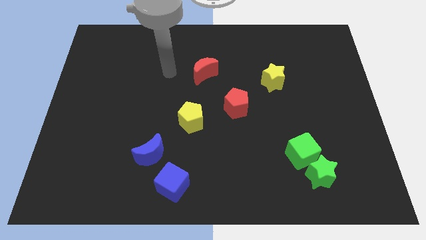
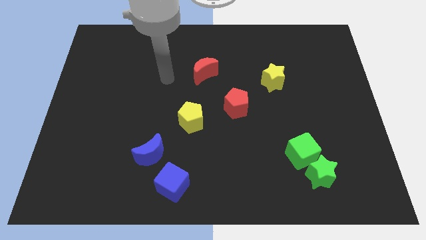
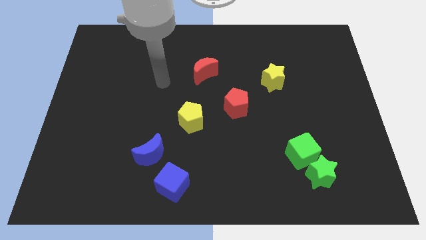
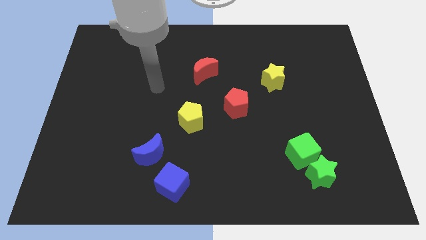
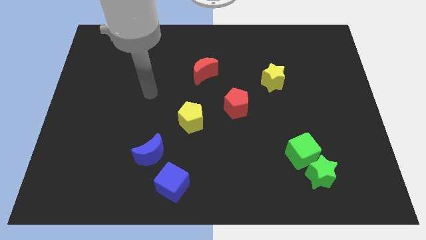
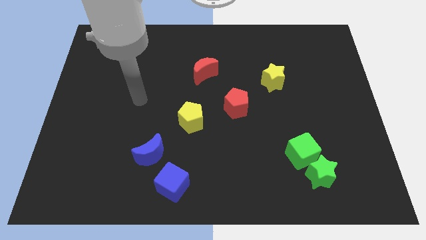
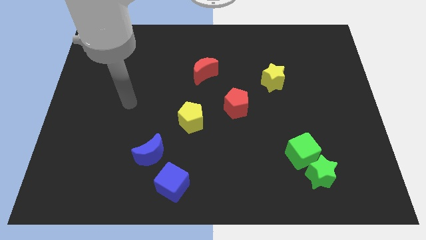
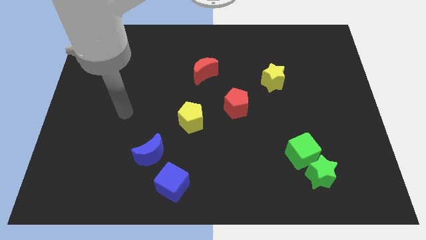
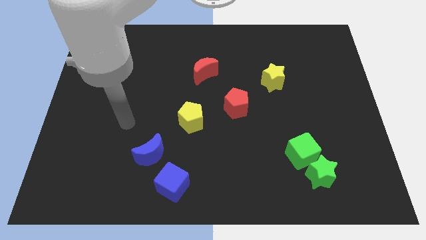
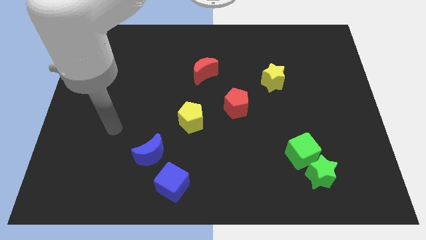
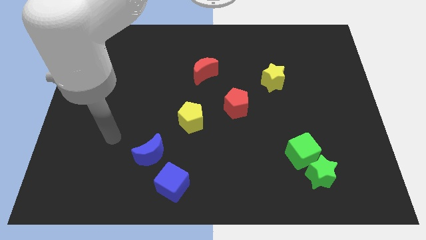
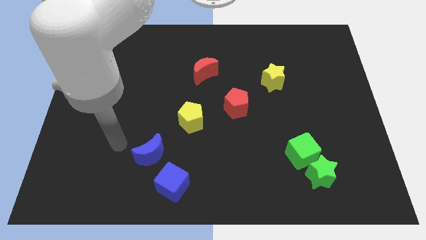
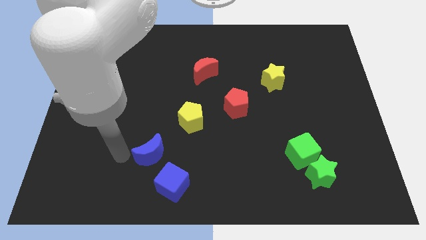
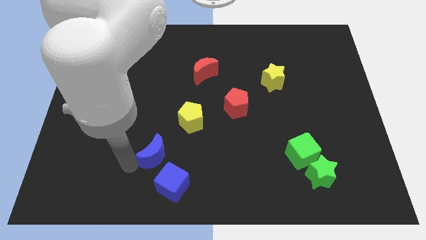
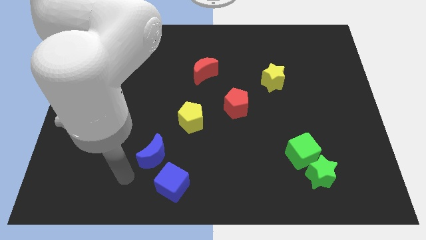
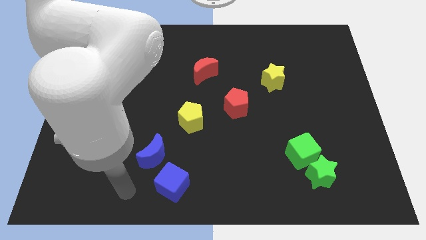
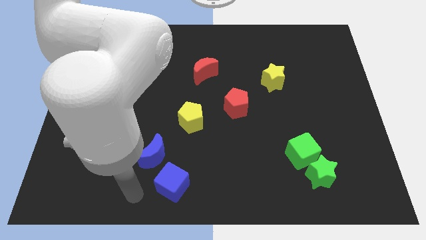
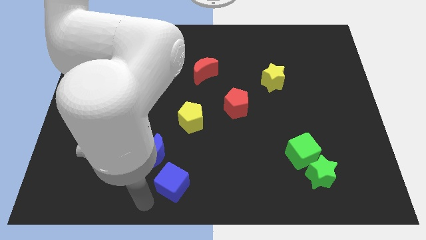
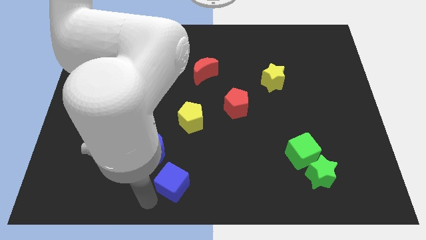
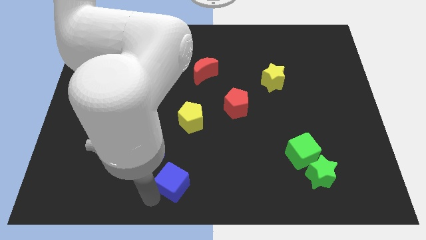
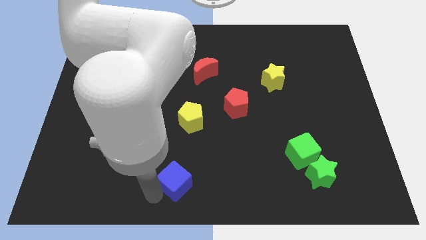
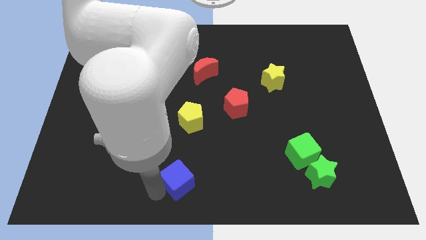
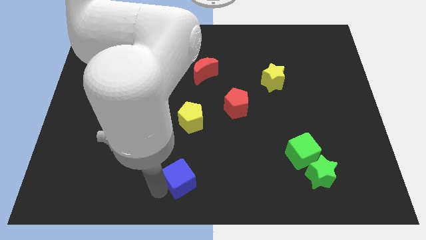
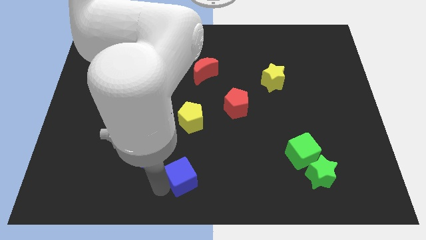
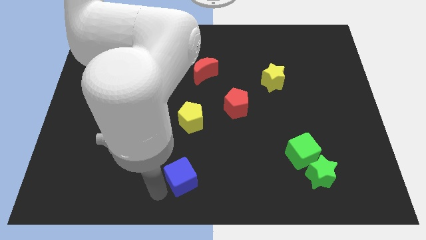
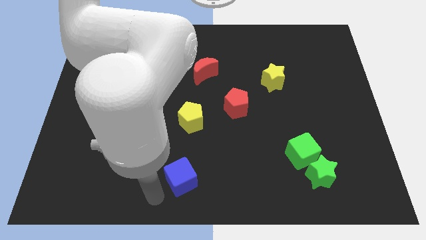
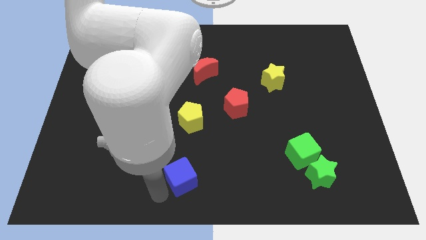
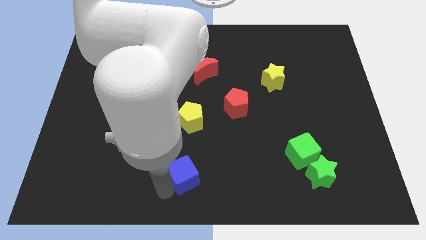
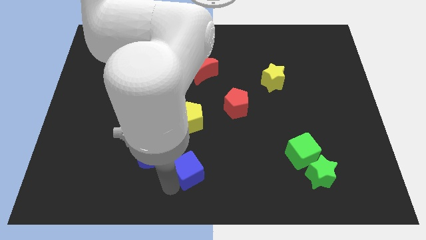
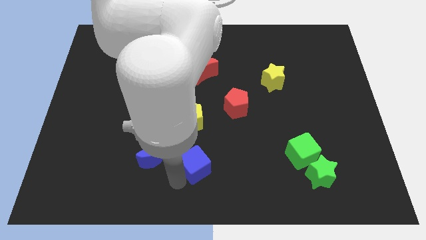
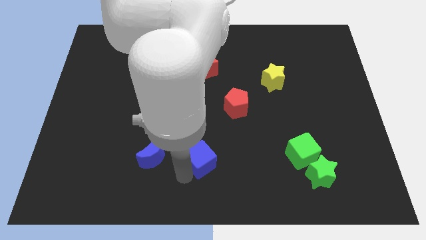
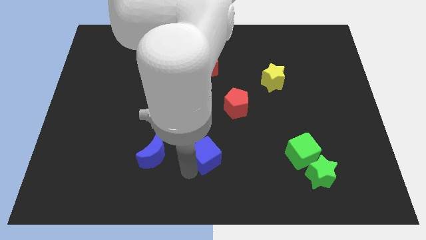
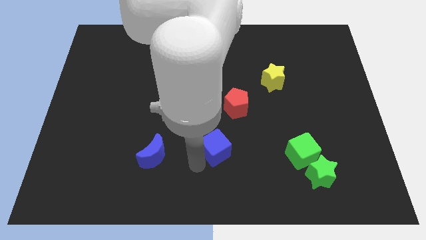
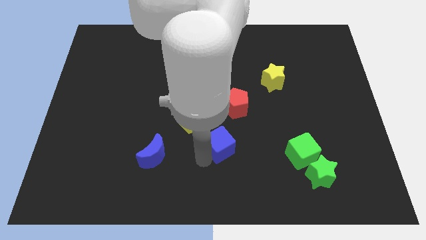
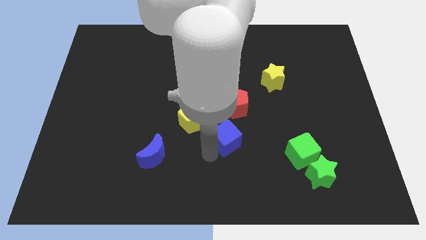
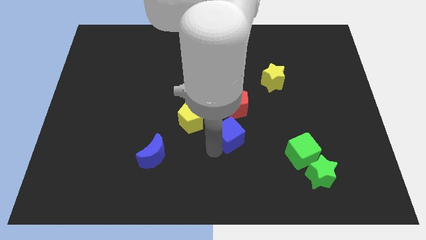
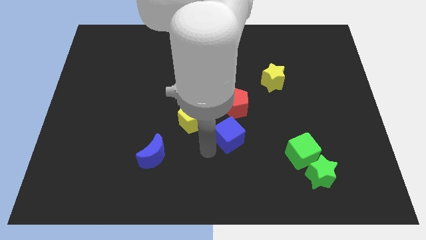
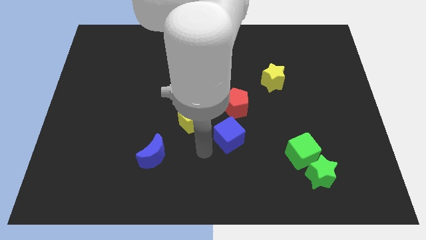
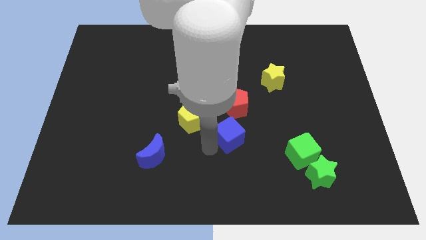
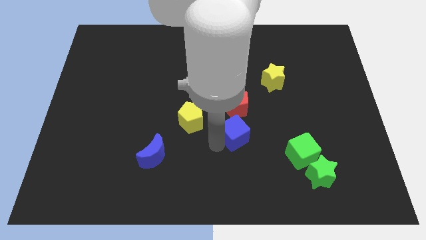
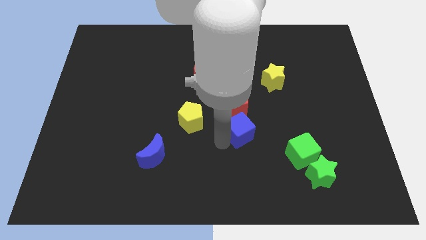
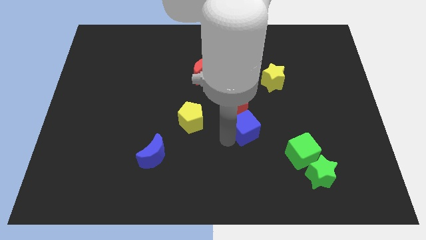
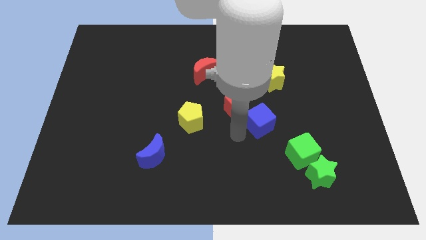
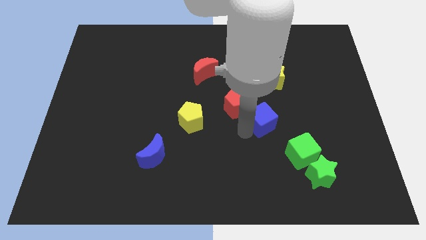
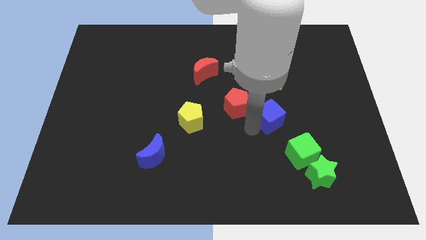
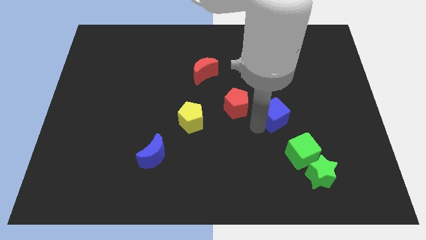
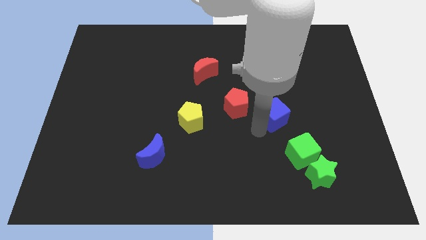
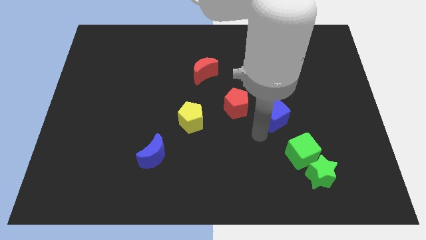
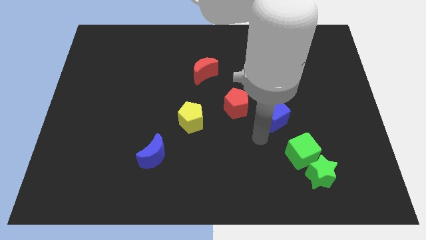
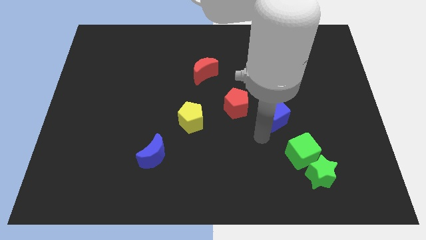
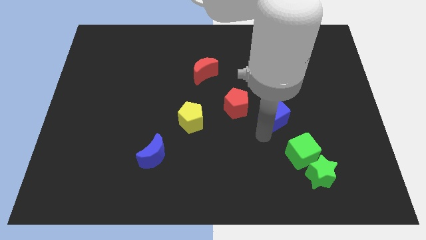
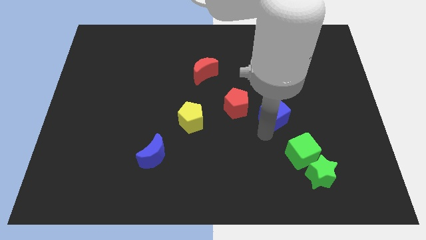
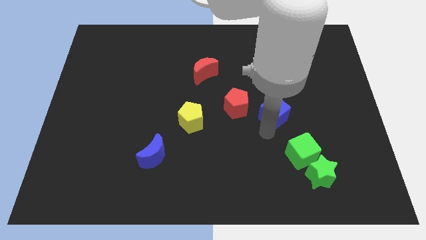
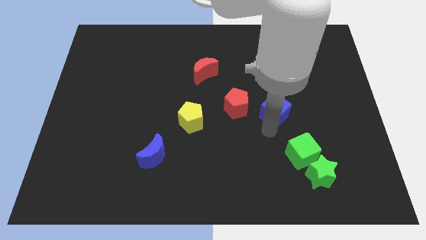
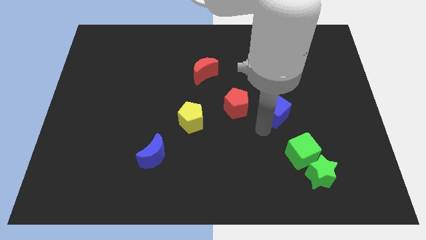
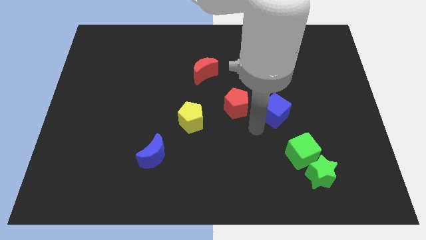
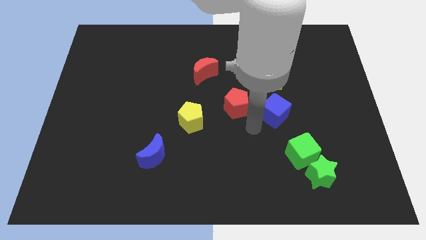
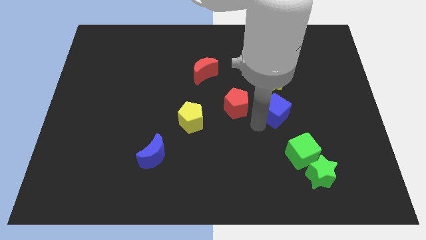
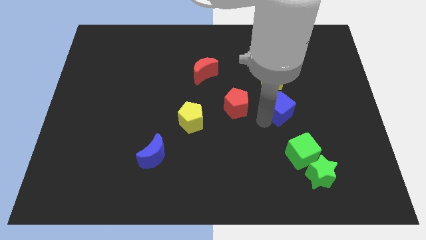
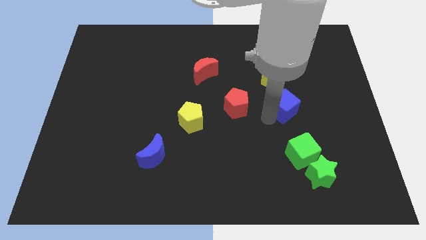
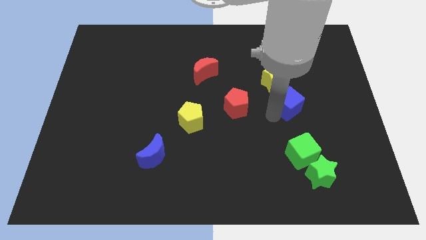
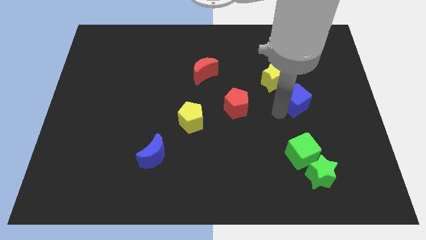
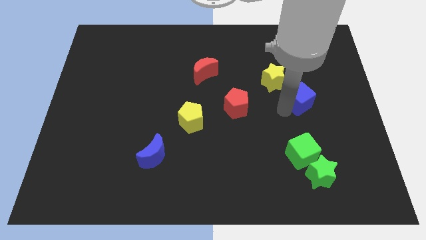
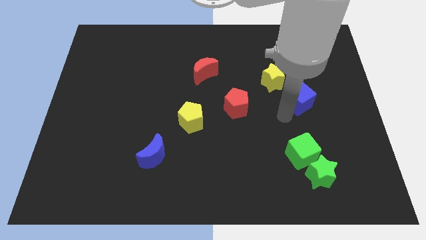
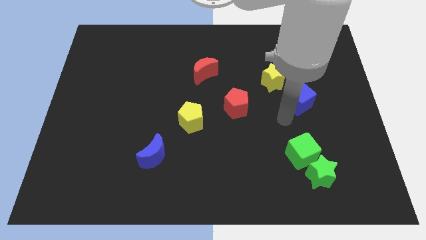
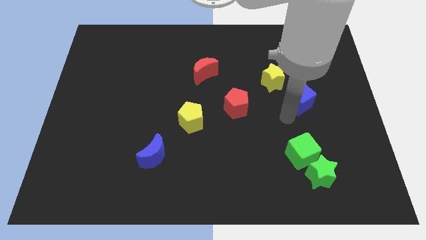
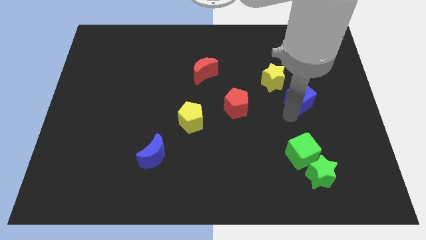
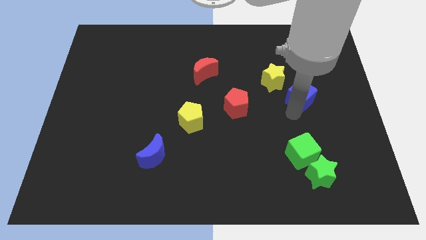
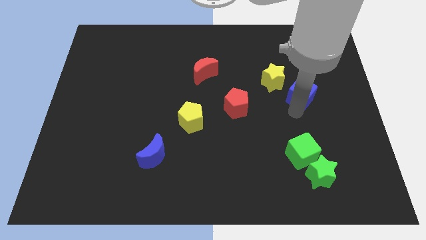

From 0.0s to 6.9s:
put the blue cube right of the yellow star

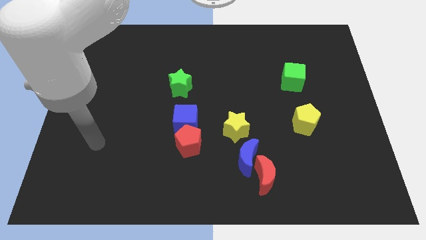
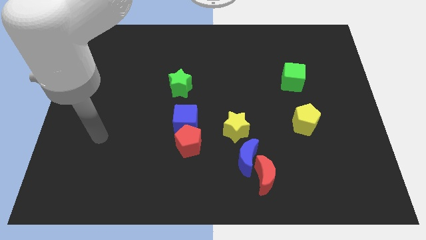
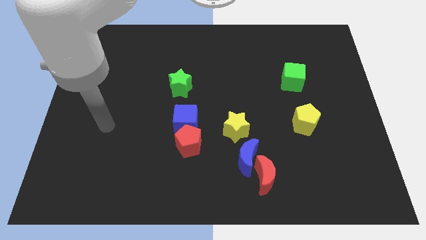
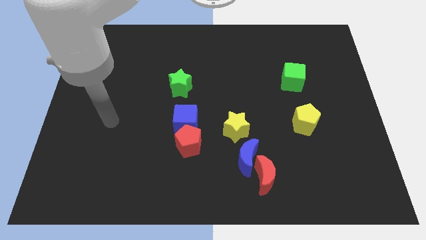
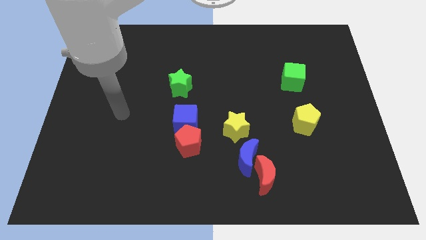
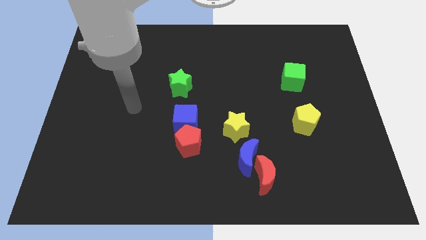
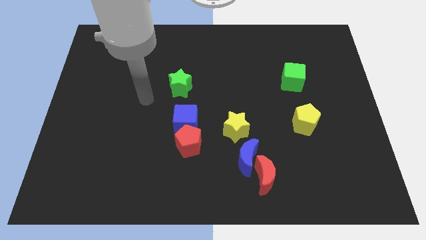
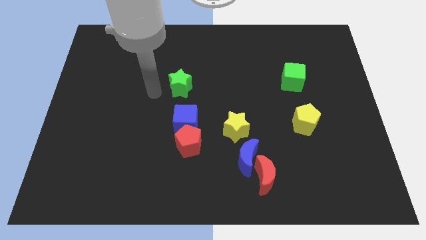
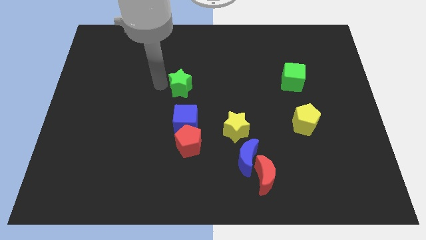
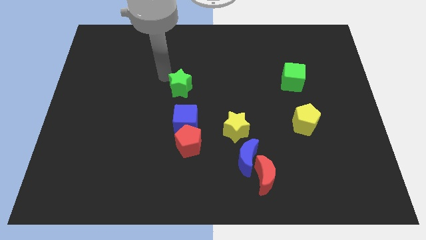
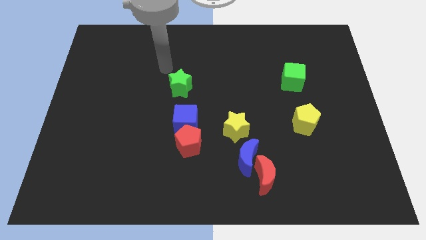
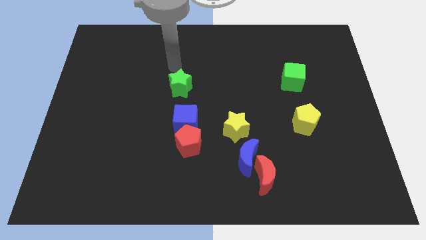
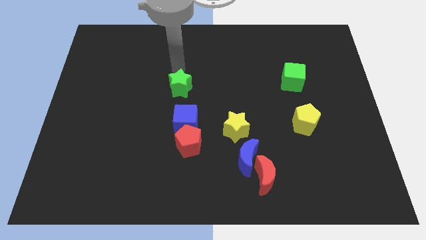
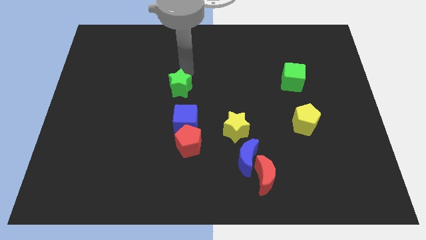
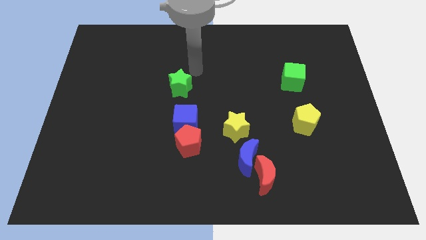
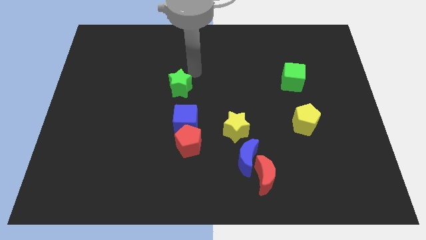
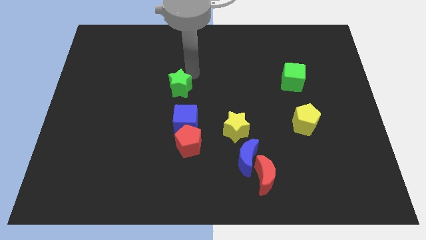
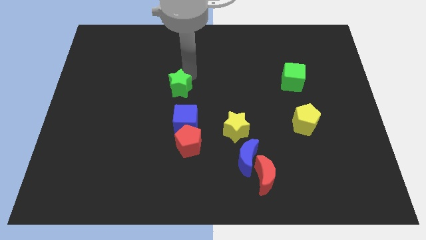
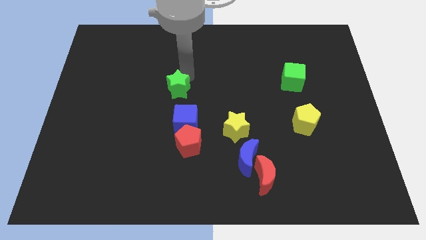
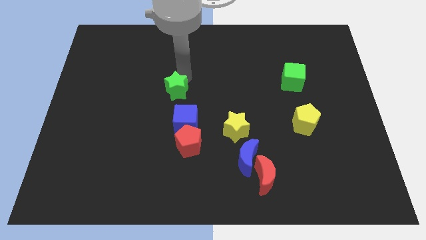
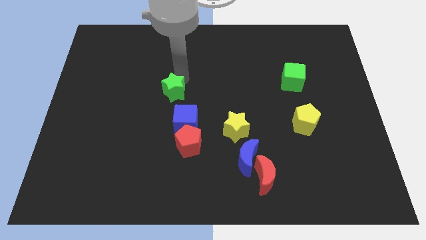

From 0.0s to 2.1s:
put the green star to the top left of the blue cube
